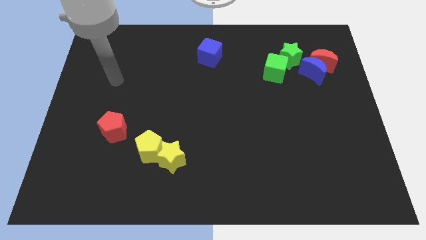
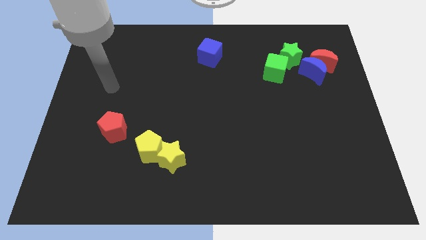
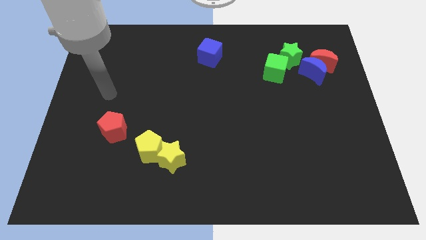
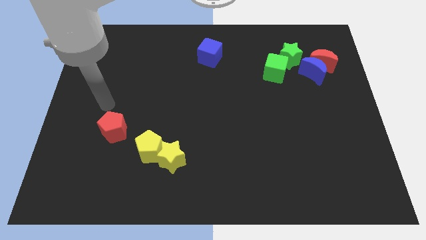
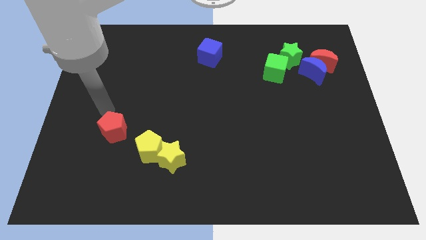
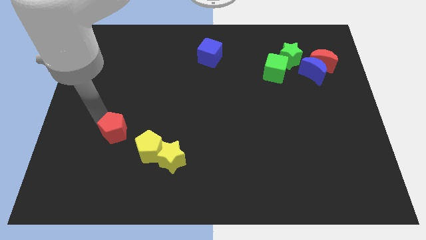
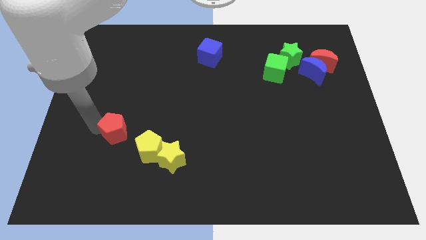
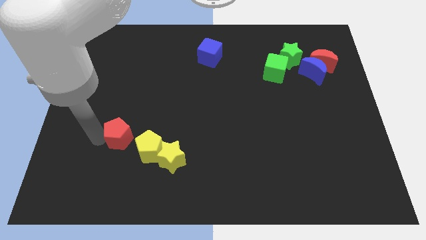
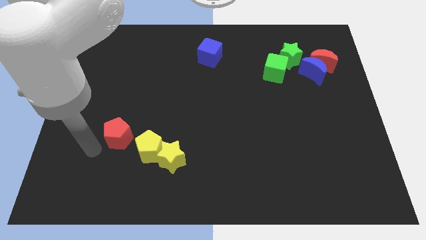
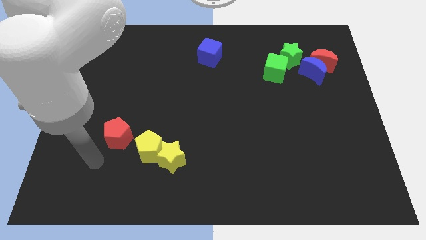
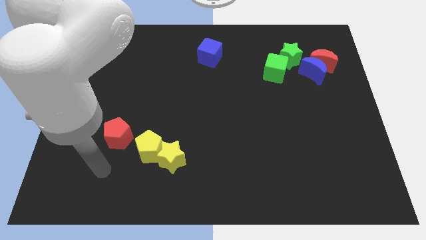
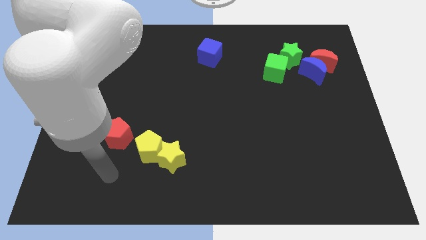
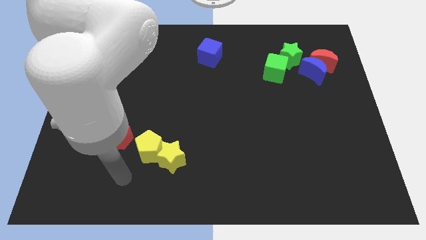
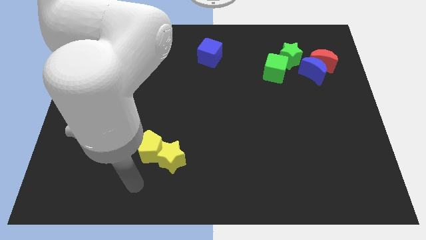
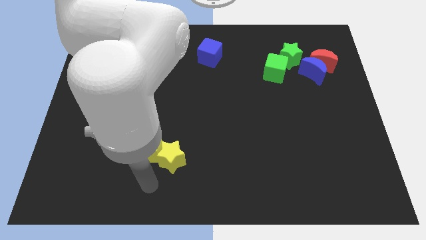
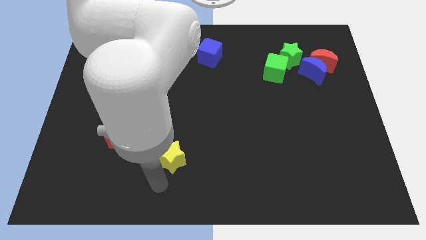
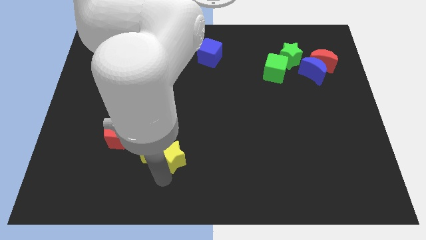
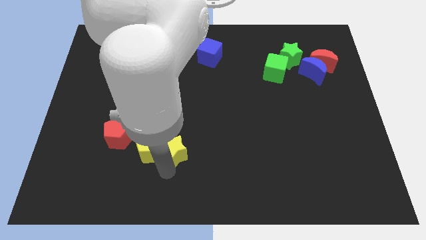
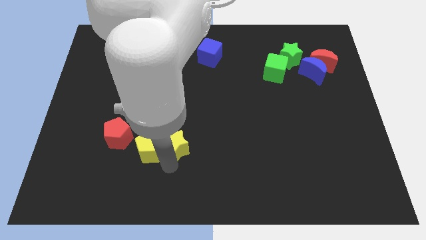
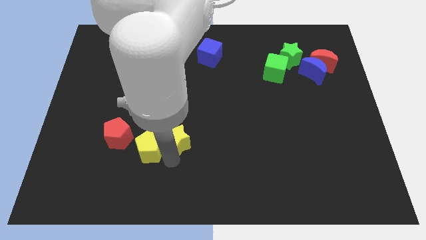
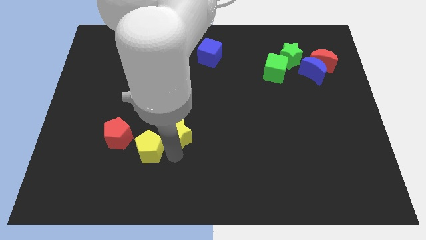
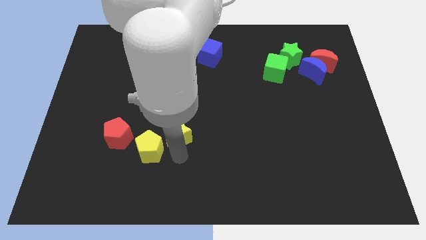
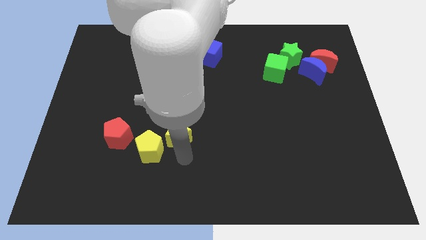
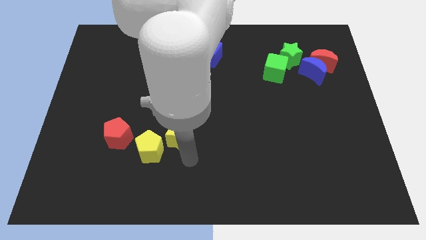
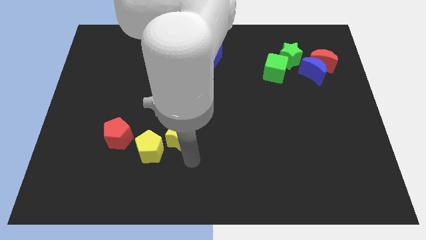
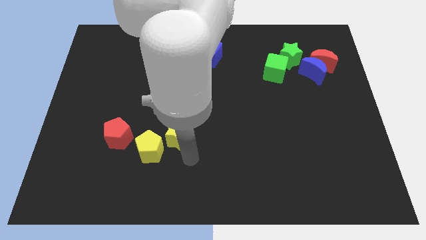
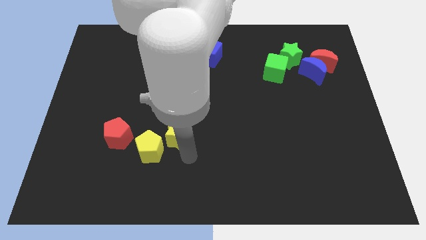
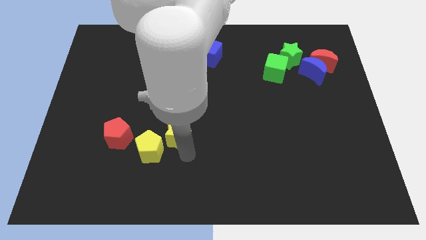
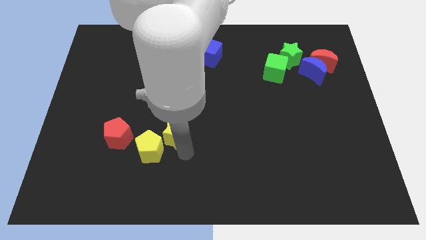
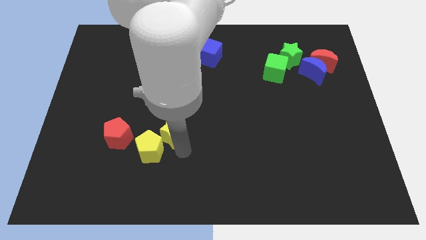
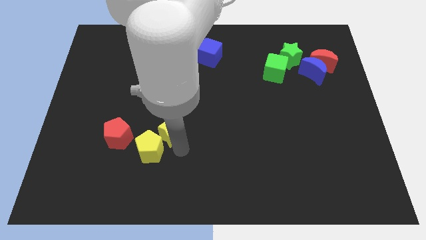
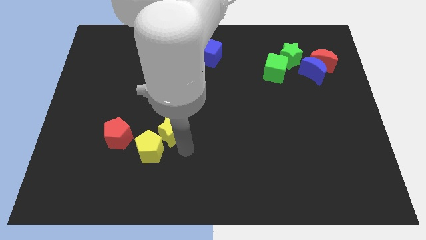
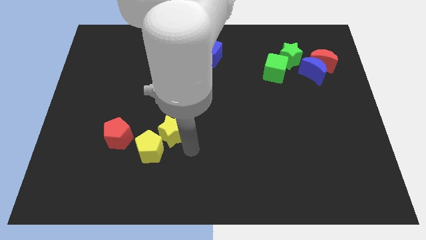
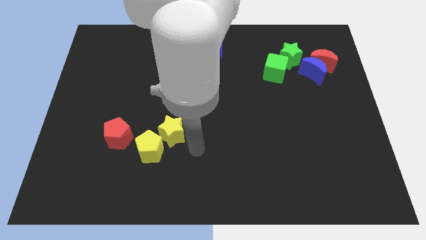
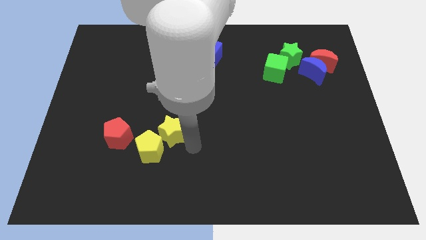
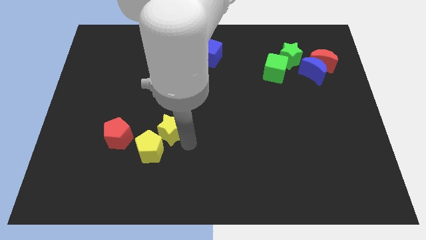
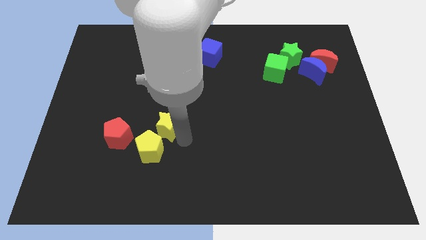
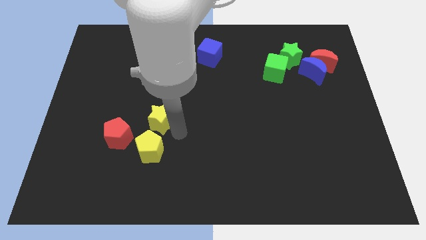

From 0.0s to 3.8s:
move the yellow star a bit up and to the left diagonally

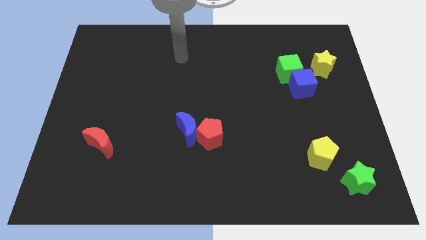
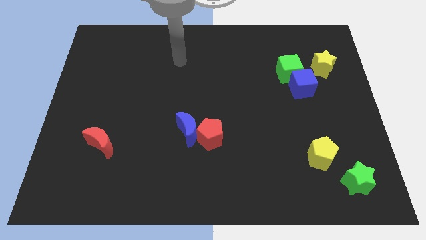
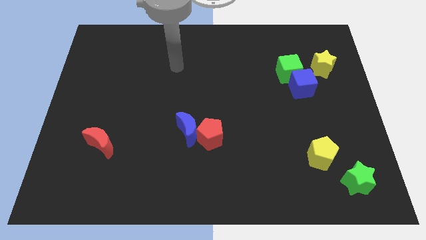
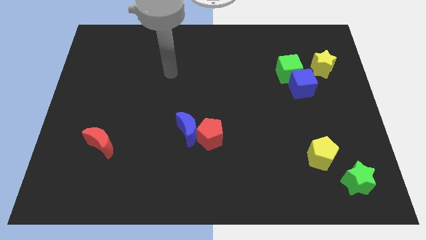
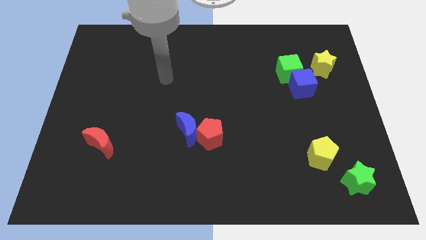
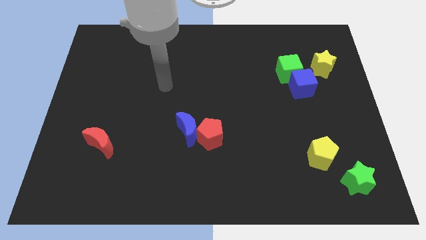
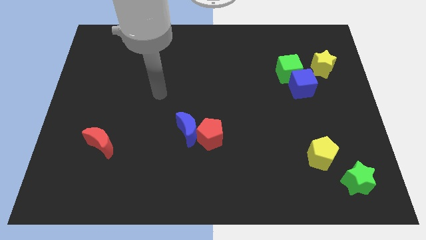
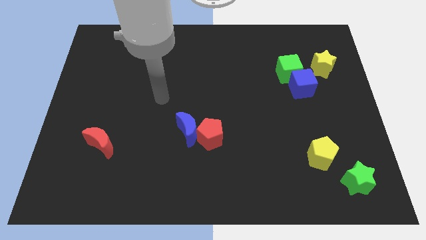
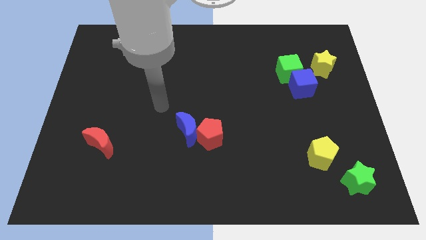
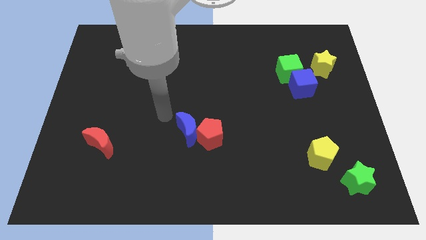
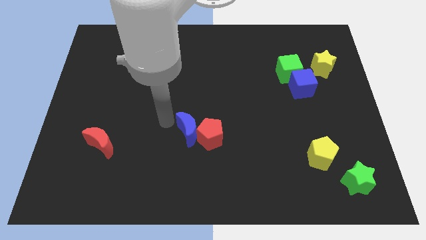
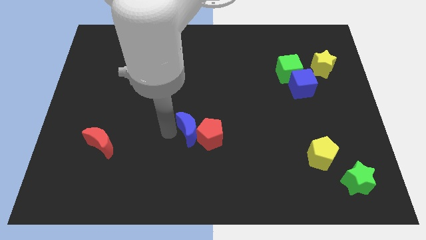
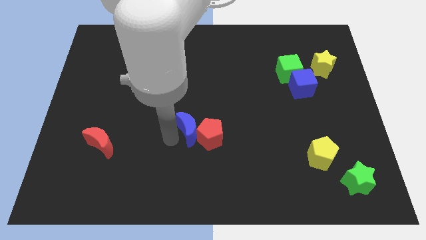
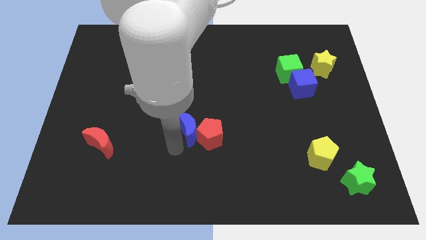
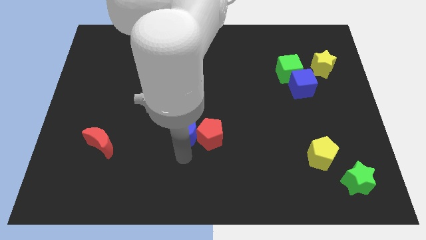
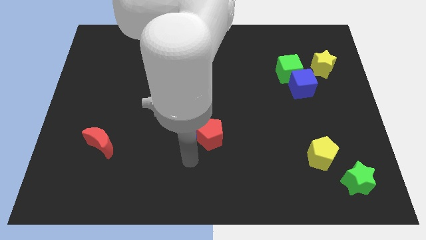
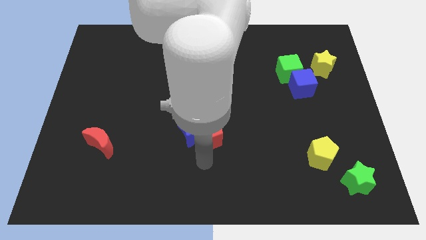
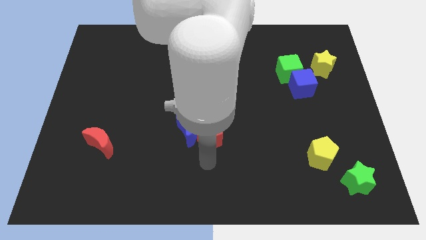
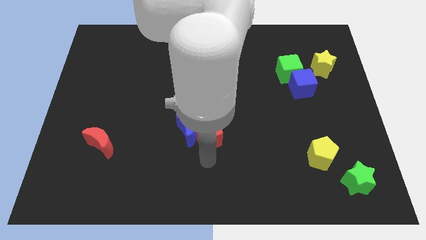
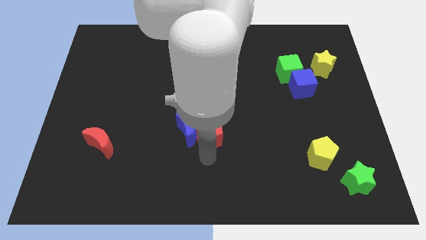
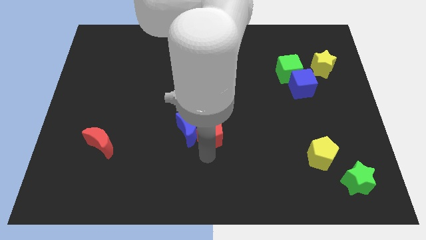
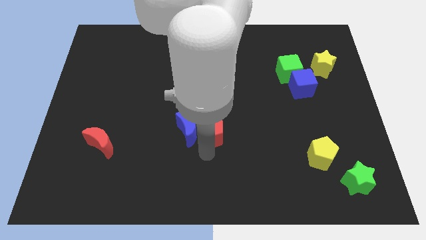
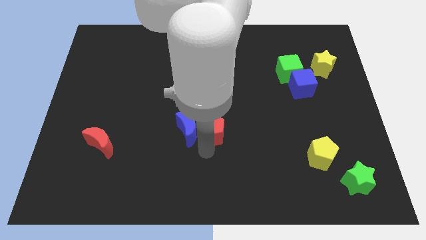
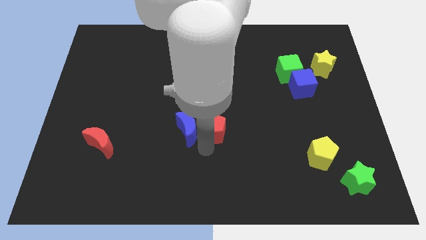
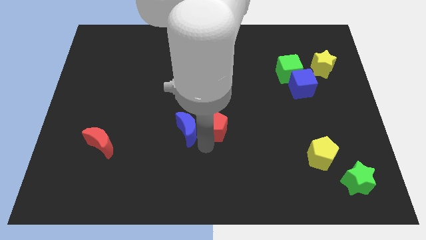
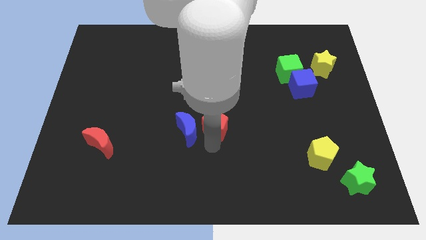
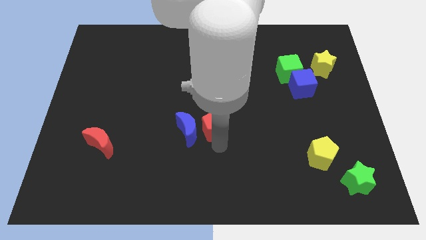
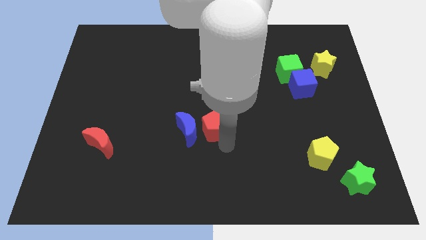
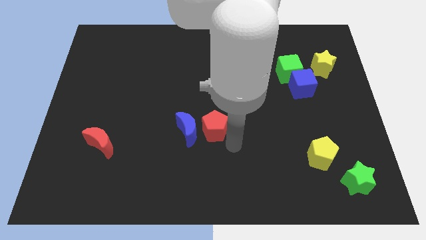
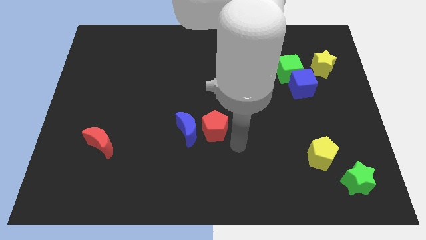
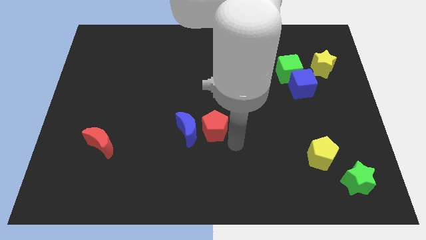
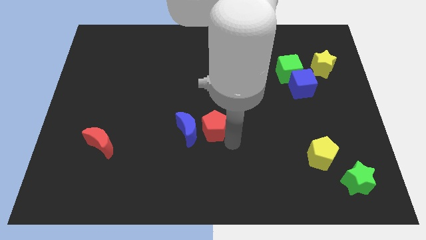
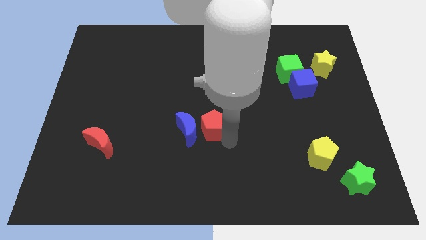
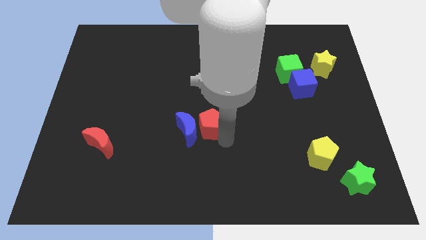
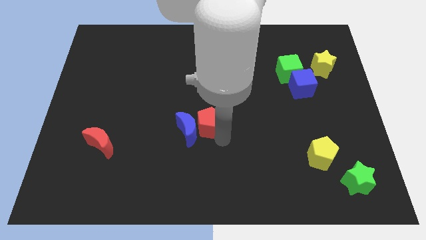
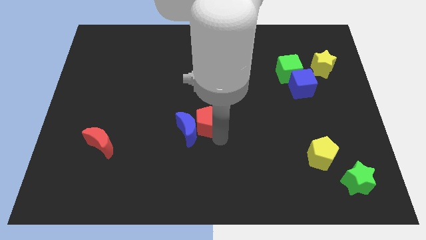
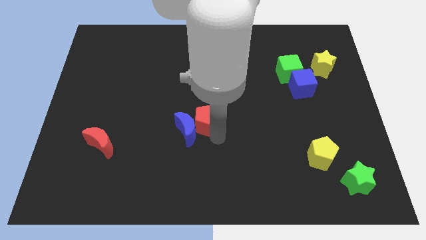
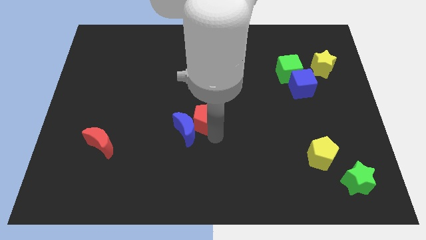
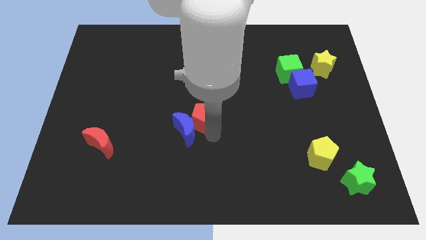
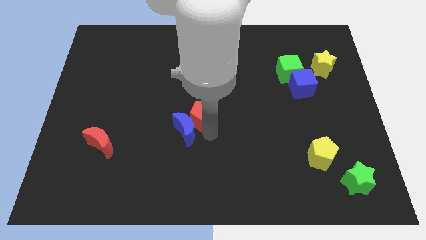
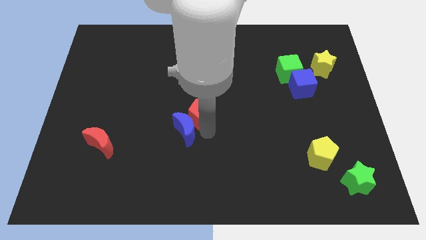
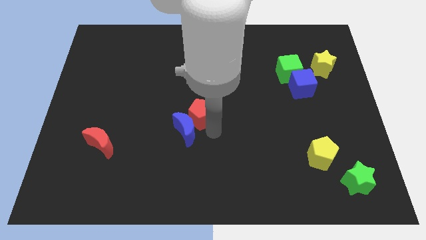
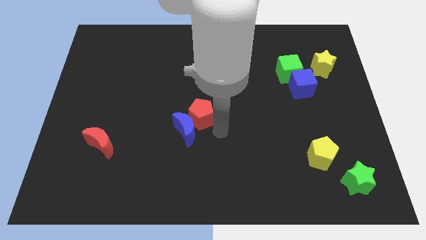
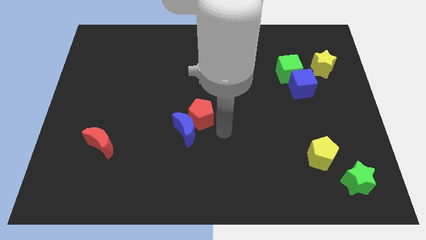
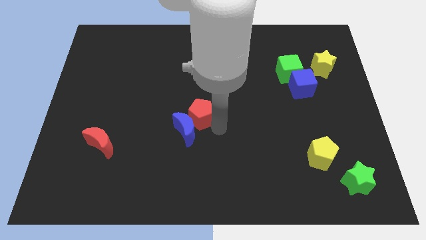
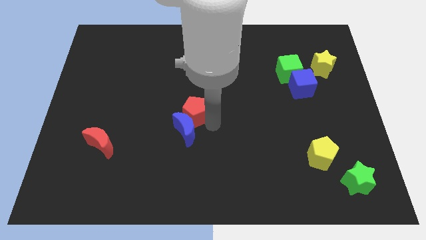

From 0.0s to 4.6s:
move the red pentagon a little up and to the left diagonally
